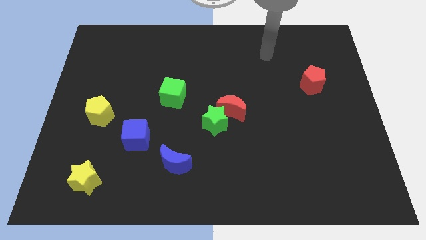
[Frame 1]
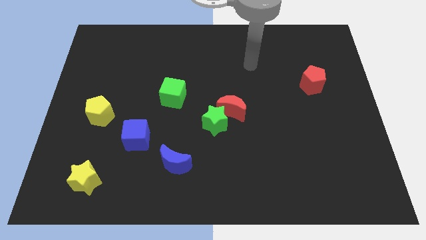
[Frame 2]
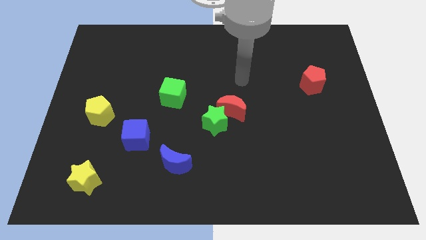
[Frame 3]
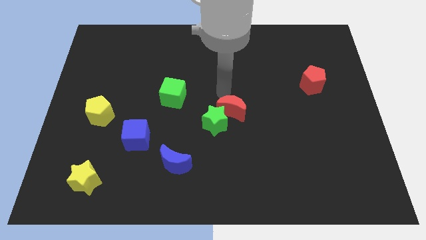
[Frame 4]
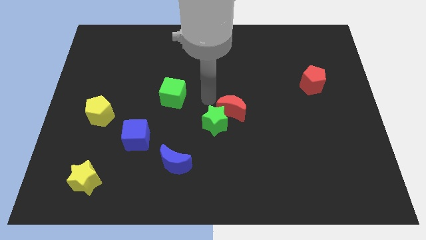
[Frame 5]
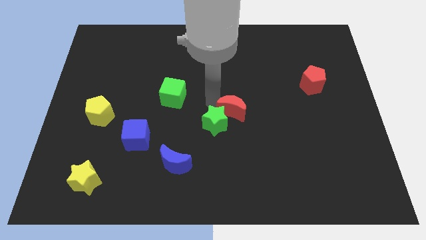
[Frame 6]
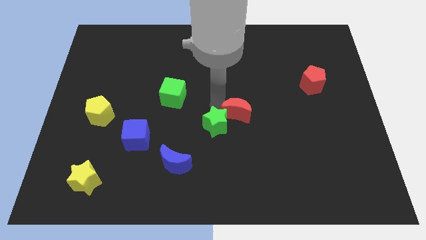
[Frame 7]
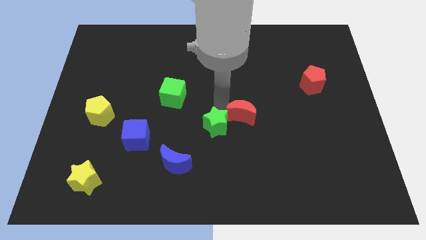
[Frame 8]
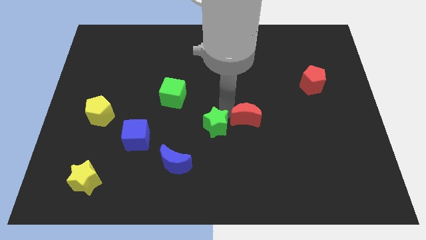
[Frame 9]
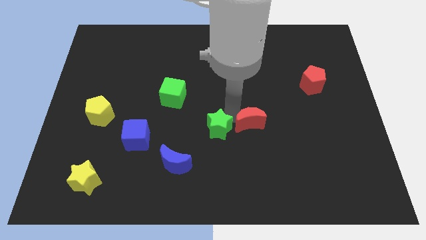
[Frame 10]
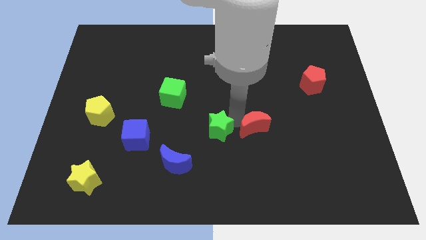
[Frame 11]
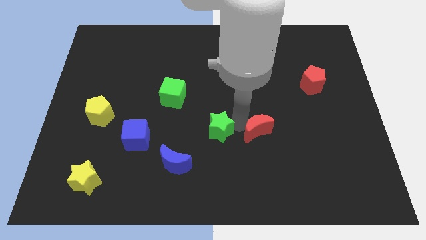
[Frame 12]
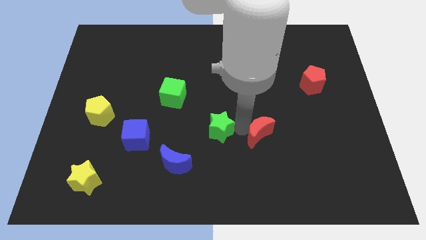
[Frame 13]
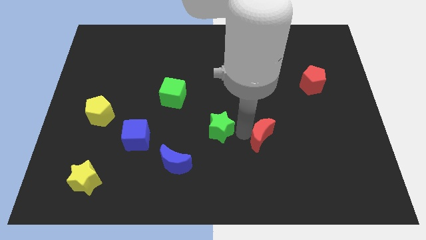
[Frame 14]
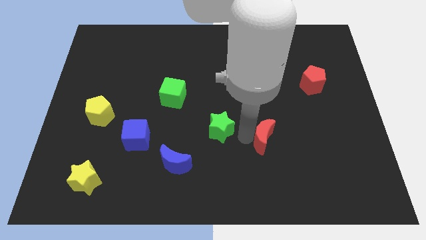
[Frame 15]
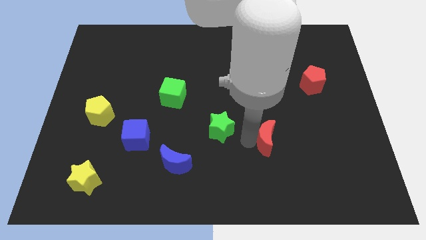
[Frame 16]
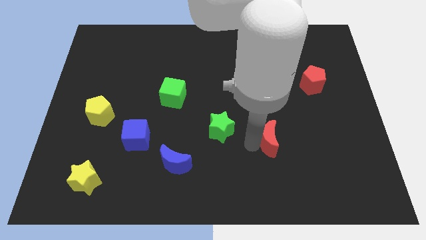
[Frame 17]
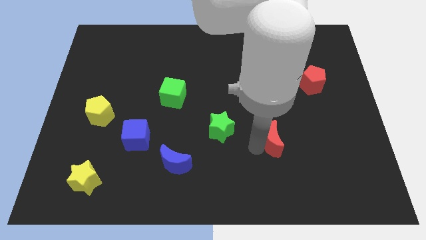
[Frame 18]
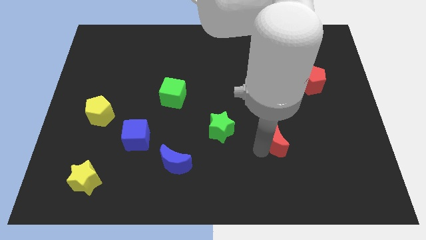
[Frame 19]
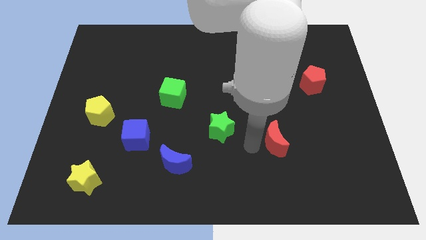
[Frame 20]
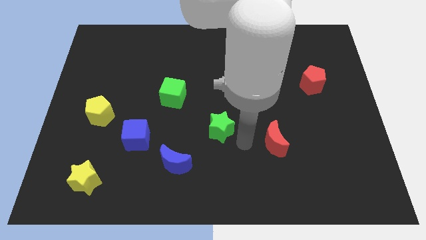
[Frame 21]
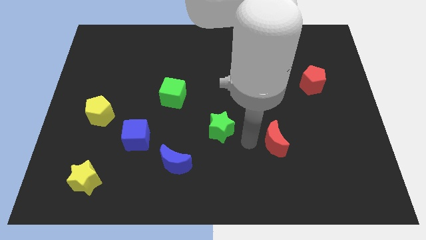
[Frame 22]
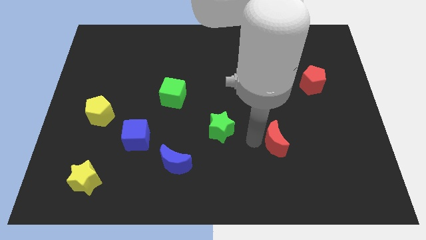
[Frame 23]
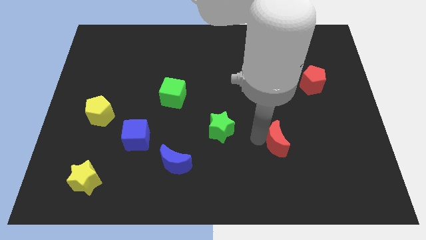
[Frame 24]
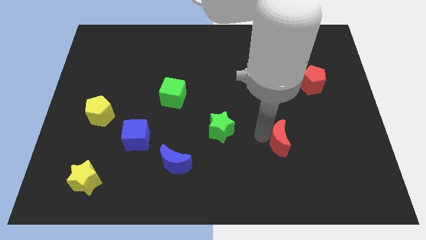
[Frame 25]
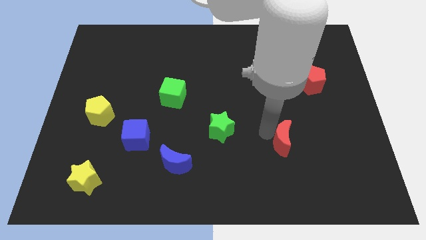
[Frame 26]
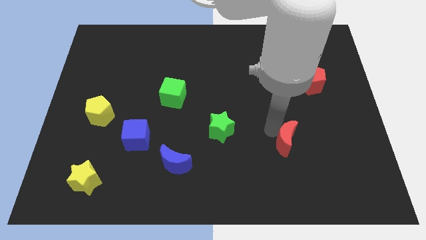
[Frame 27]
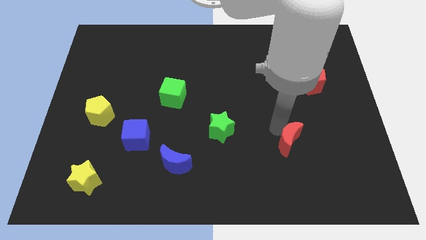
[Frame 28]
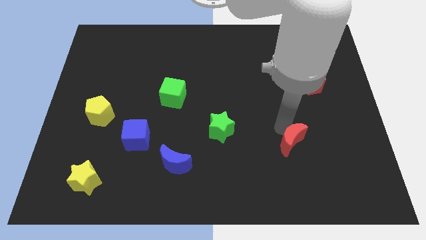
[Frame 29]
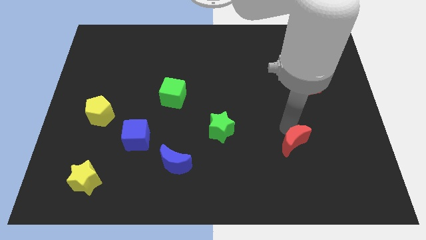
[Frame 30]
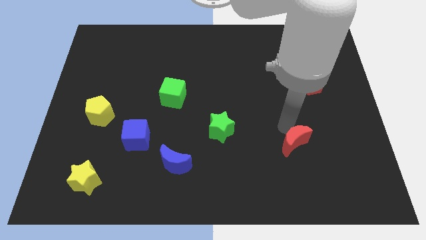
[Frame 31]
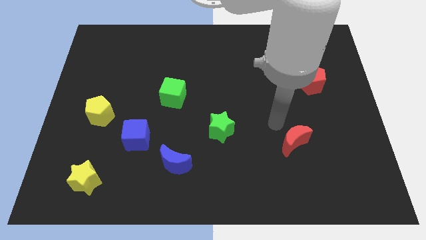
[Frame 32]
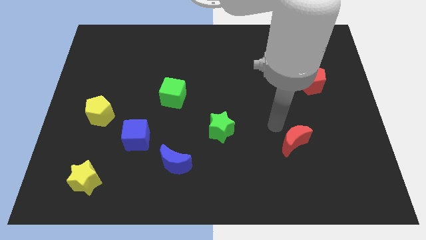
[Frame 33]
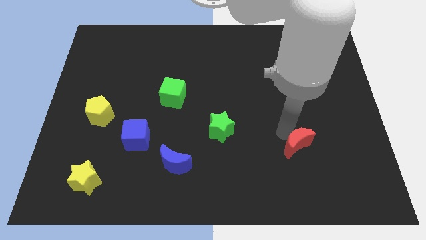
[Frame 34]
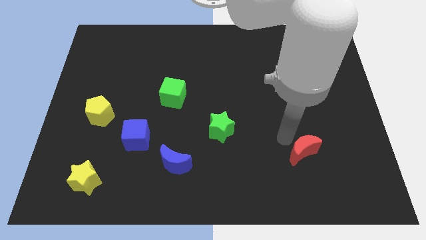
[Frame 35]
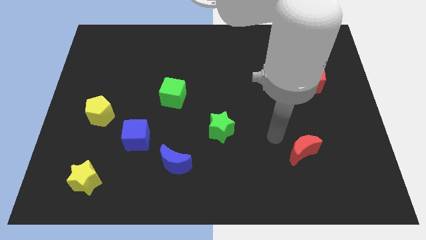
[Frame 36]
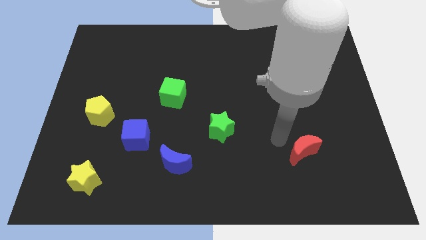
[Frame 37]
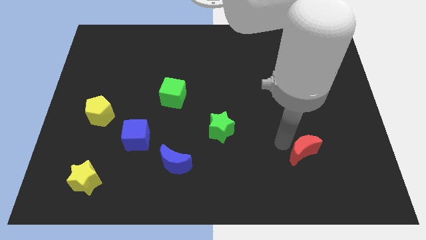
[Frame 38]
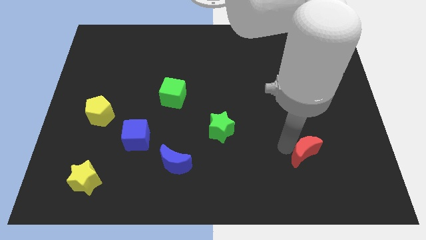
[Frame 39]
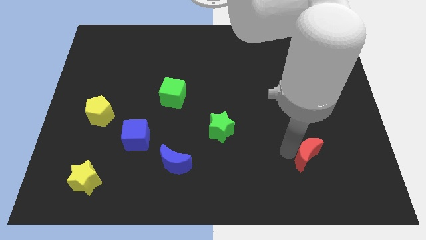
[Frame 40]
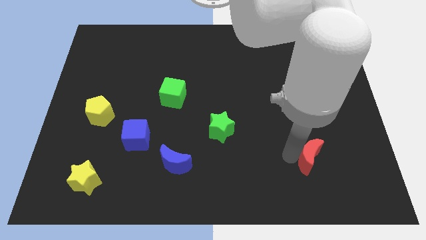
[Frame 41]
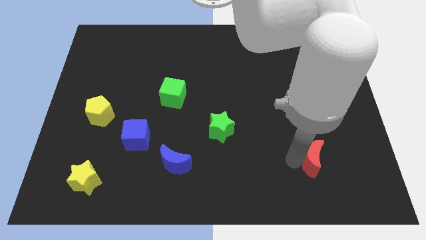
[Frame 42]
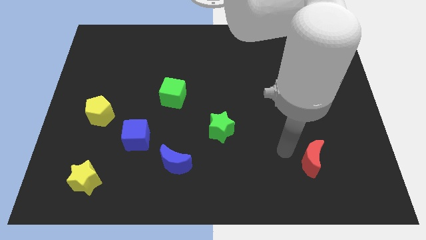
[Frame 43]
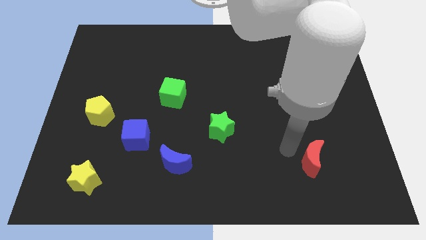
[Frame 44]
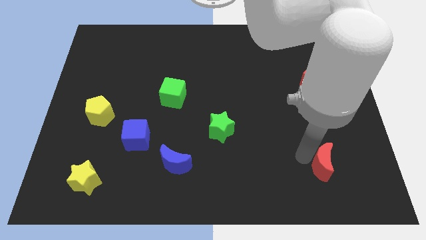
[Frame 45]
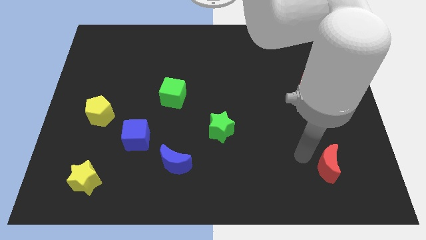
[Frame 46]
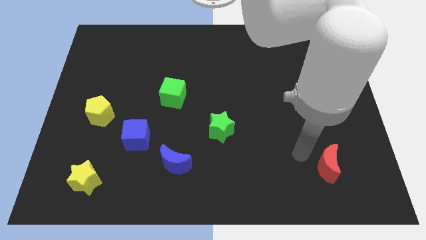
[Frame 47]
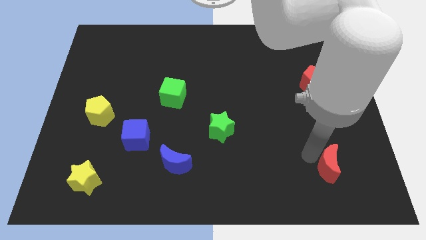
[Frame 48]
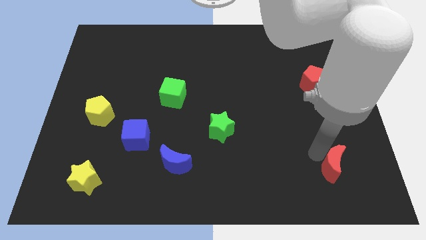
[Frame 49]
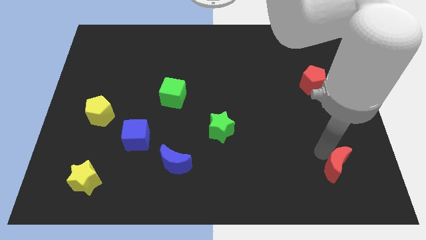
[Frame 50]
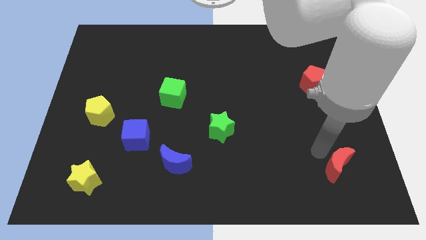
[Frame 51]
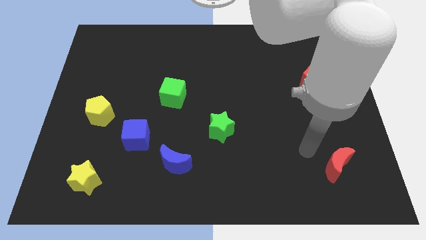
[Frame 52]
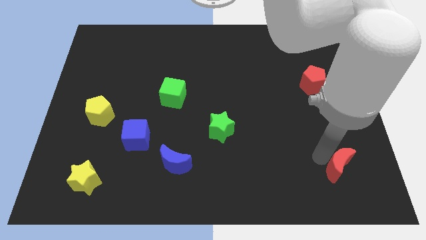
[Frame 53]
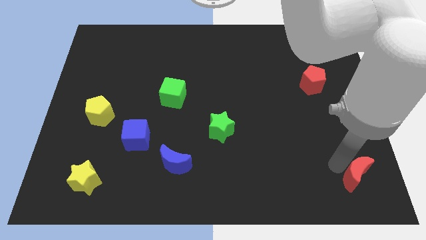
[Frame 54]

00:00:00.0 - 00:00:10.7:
move the red moon to the bottom right
